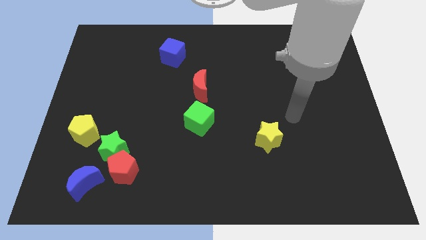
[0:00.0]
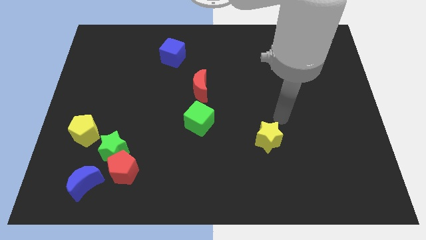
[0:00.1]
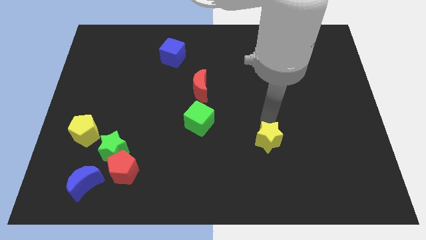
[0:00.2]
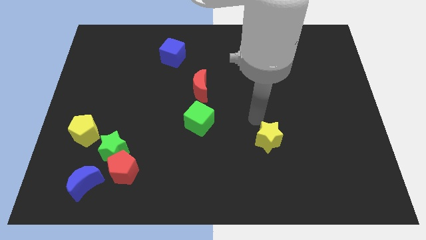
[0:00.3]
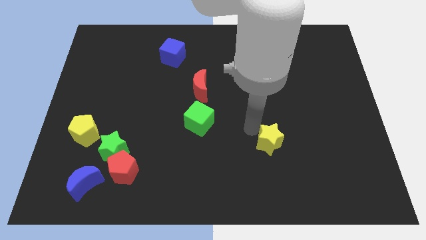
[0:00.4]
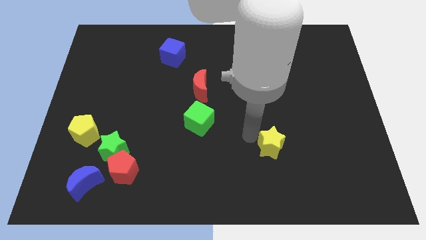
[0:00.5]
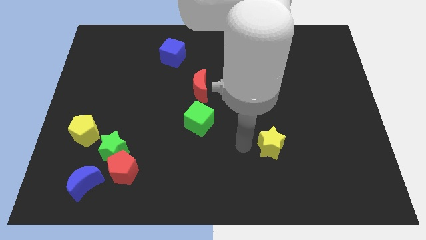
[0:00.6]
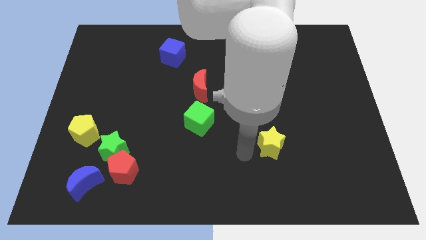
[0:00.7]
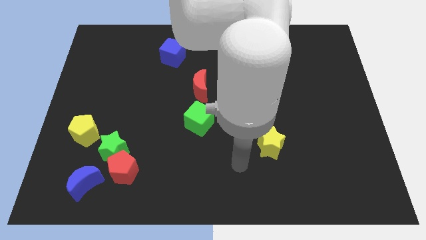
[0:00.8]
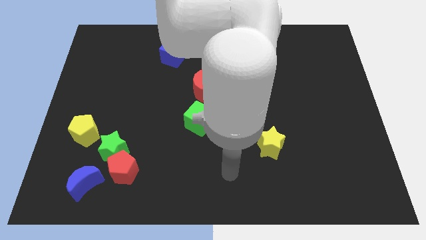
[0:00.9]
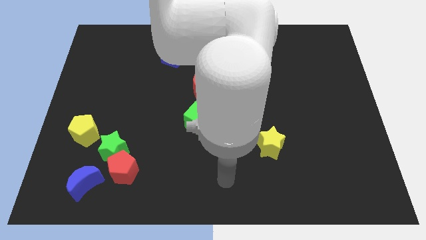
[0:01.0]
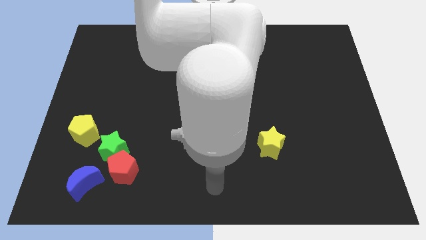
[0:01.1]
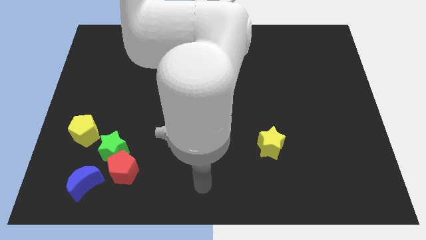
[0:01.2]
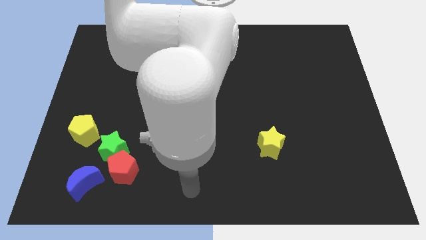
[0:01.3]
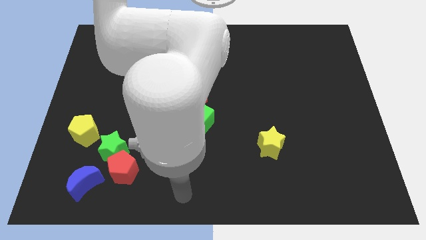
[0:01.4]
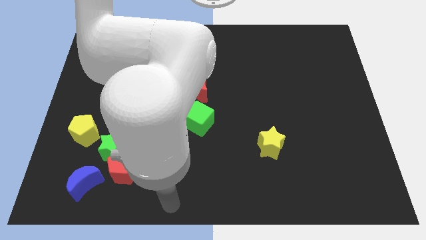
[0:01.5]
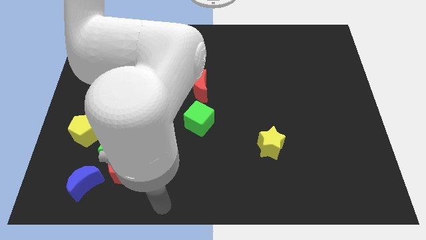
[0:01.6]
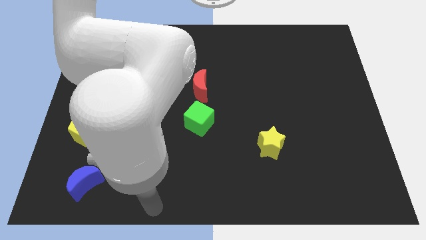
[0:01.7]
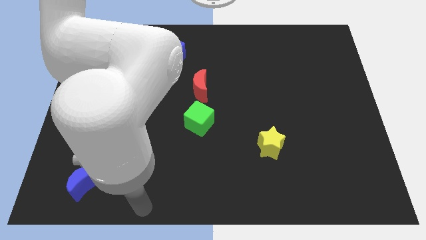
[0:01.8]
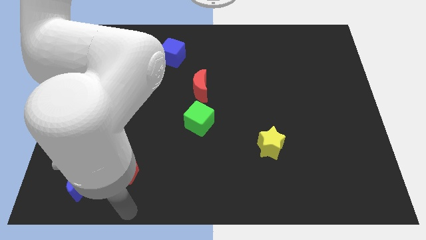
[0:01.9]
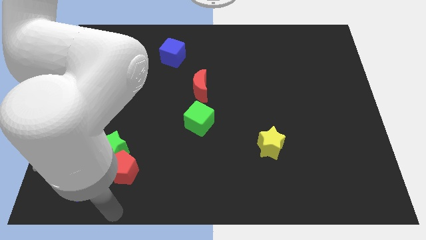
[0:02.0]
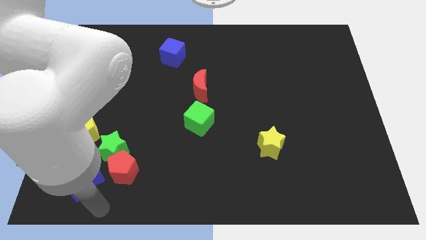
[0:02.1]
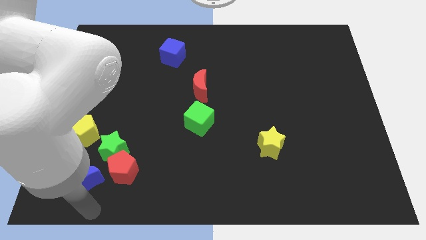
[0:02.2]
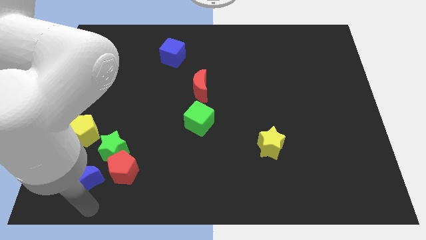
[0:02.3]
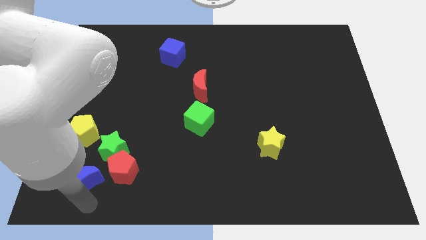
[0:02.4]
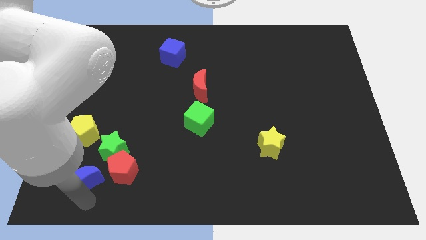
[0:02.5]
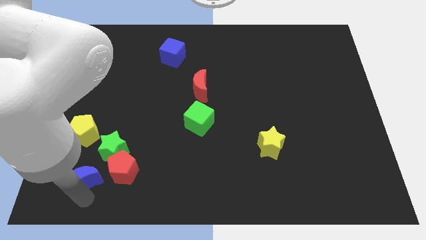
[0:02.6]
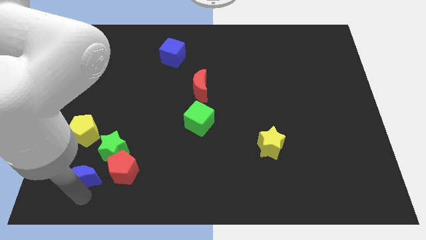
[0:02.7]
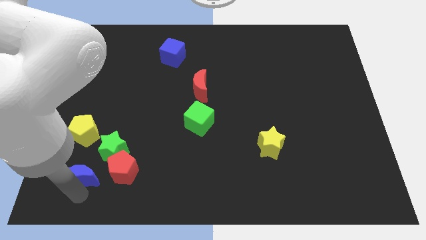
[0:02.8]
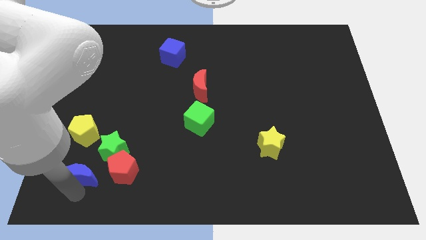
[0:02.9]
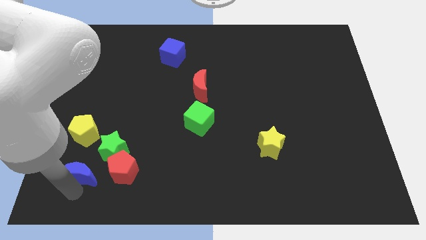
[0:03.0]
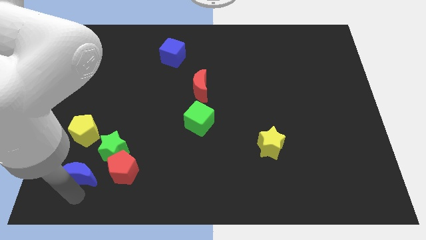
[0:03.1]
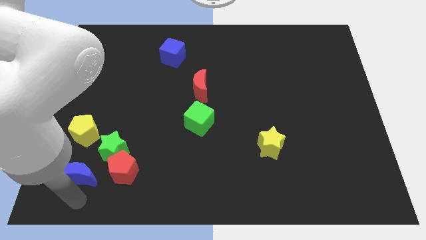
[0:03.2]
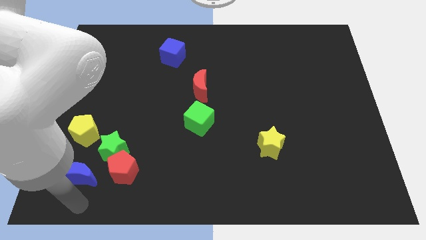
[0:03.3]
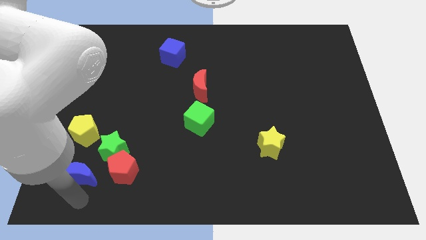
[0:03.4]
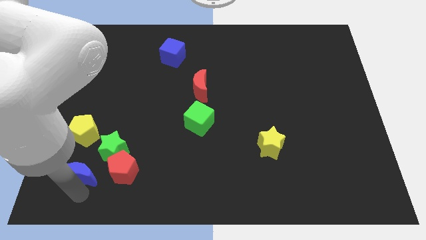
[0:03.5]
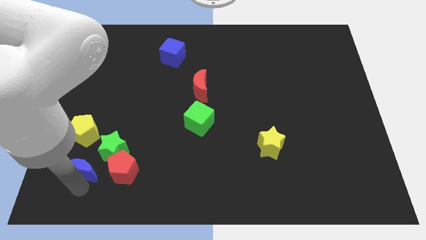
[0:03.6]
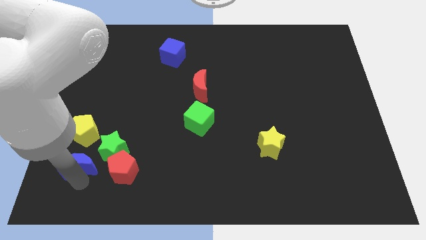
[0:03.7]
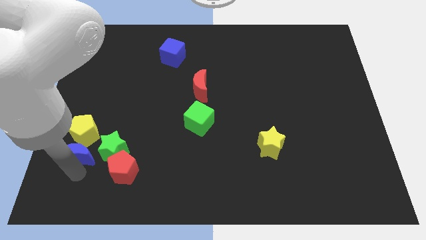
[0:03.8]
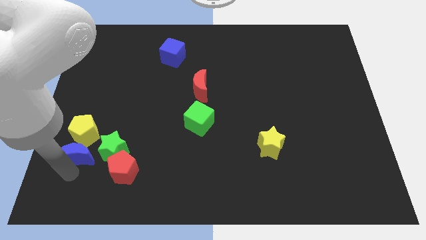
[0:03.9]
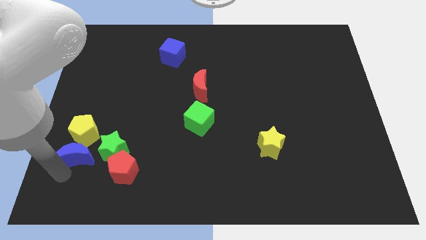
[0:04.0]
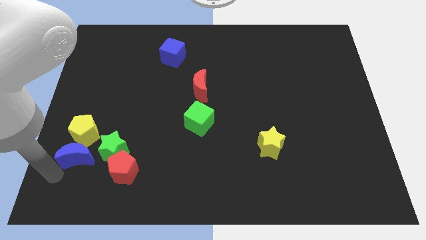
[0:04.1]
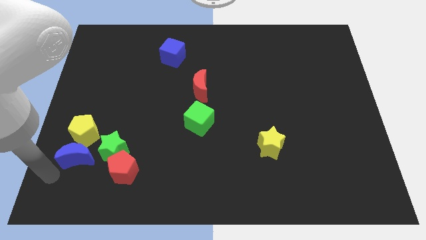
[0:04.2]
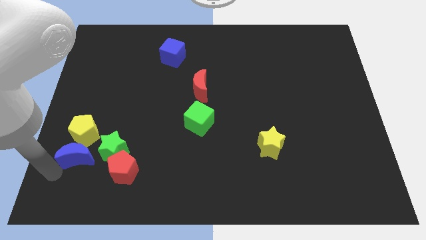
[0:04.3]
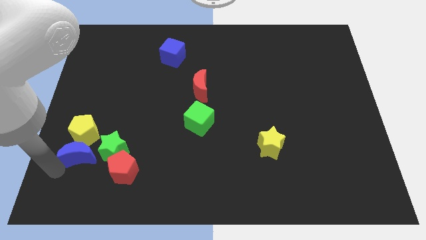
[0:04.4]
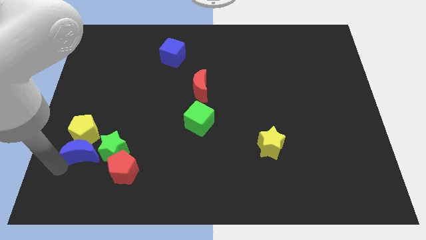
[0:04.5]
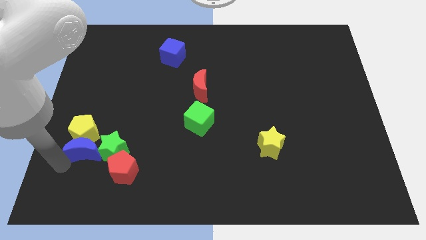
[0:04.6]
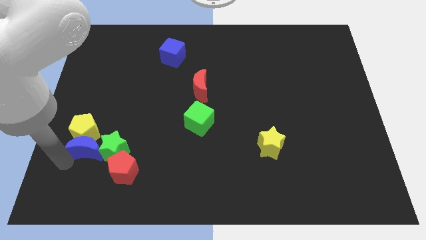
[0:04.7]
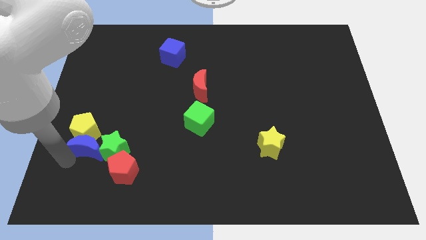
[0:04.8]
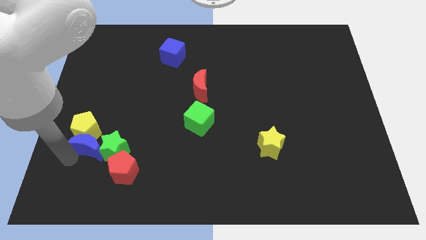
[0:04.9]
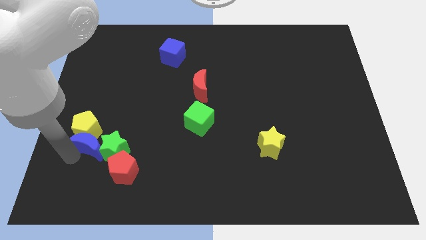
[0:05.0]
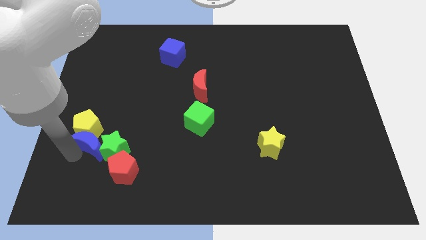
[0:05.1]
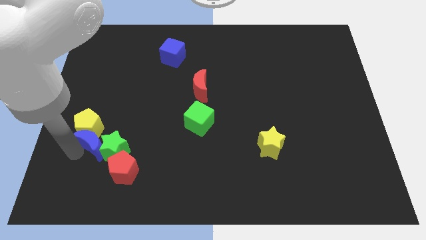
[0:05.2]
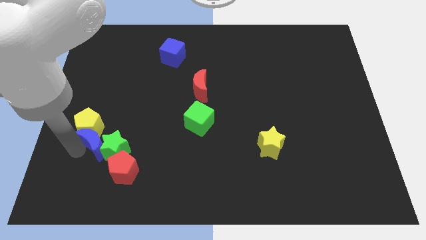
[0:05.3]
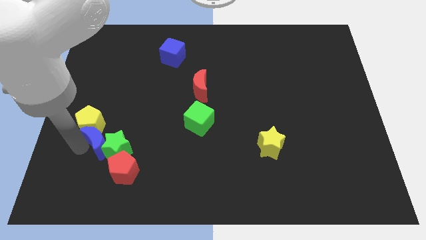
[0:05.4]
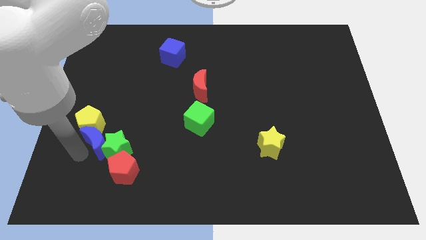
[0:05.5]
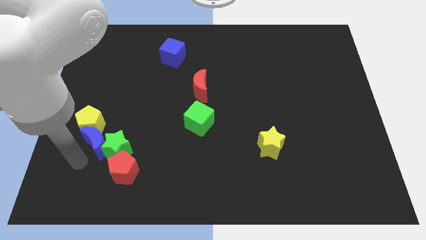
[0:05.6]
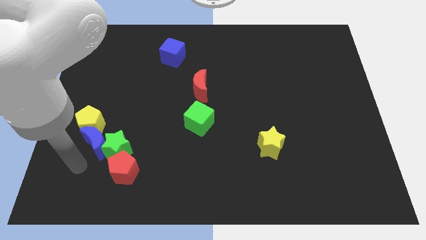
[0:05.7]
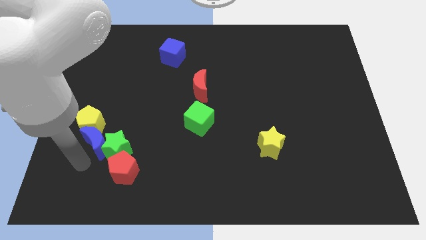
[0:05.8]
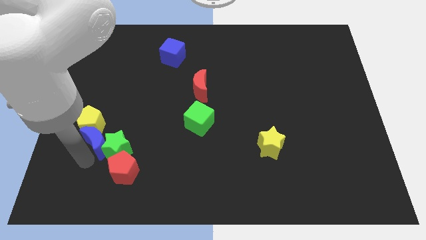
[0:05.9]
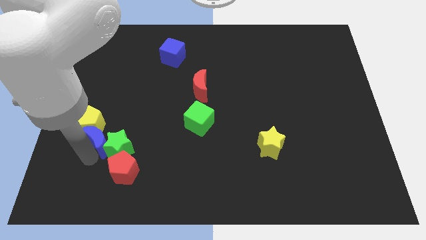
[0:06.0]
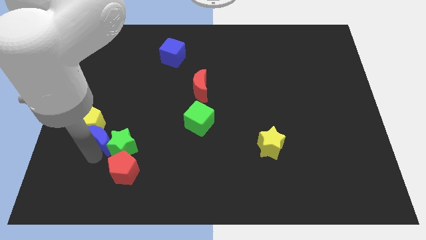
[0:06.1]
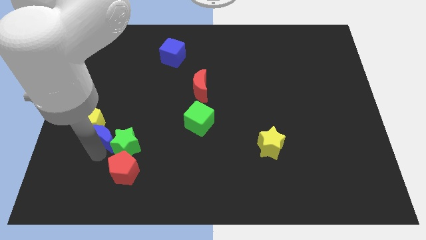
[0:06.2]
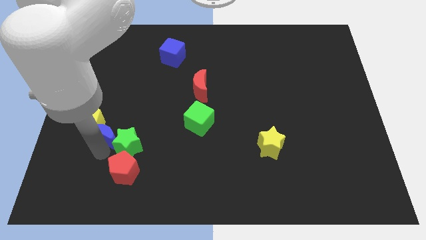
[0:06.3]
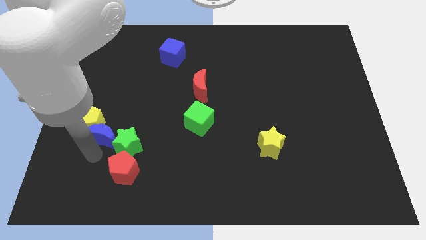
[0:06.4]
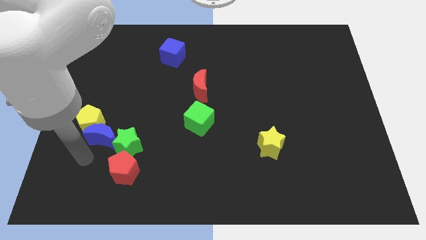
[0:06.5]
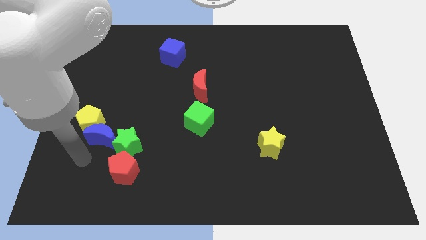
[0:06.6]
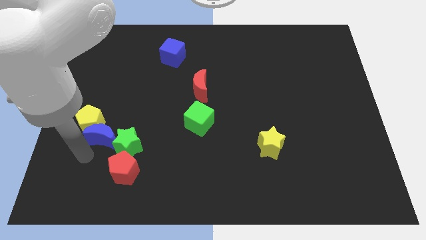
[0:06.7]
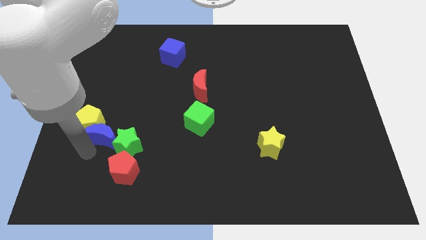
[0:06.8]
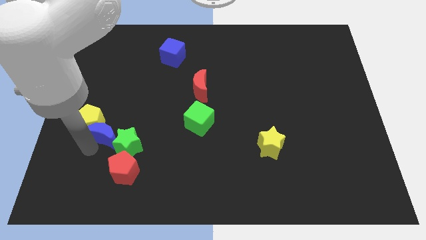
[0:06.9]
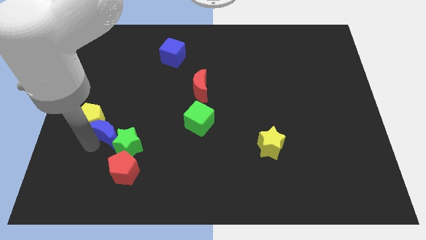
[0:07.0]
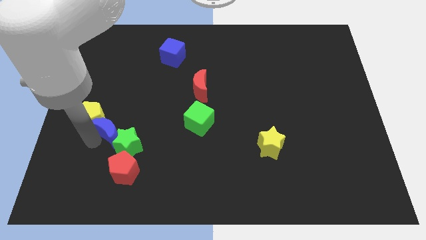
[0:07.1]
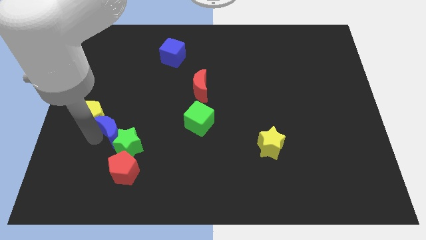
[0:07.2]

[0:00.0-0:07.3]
slide the blue moon above the green star
